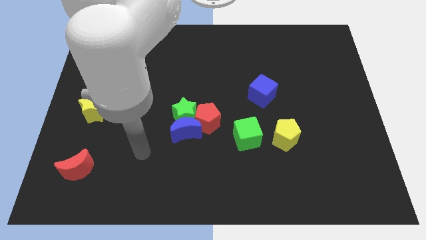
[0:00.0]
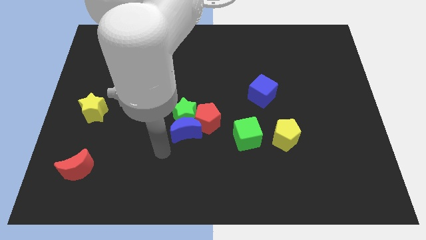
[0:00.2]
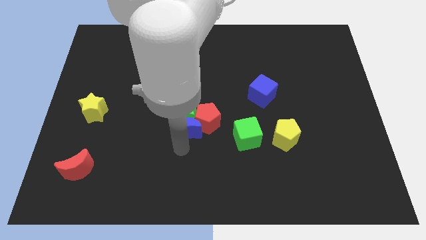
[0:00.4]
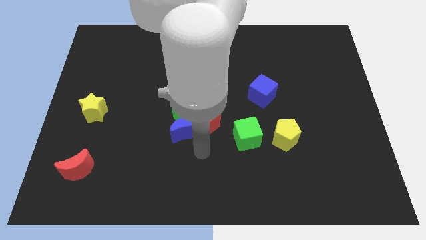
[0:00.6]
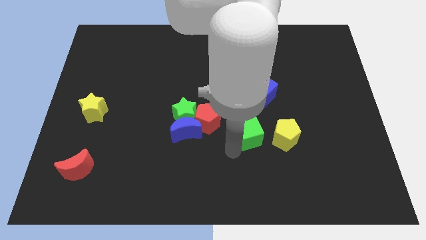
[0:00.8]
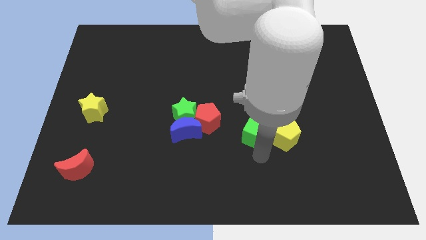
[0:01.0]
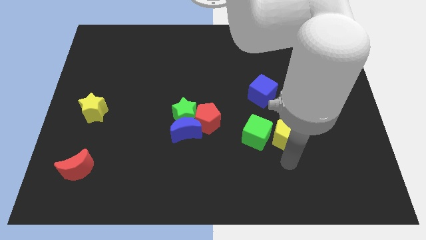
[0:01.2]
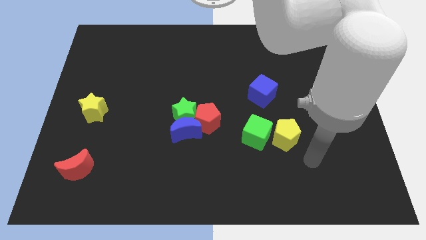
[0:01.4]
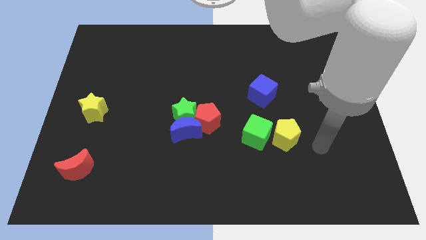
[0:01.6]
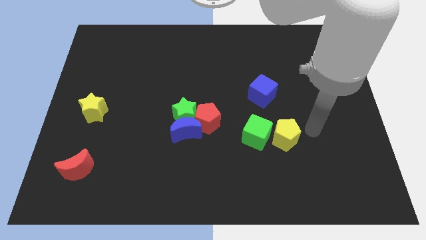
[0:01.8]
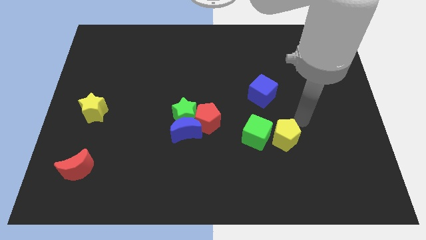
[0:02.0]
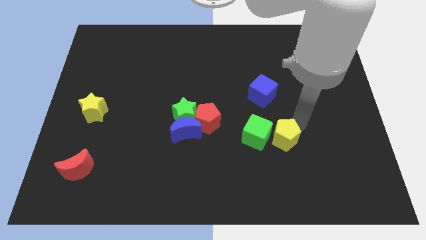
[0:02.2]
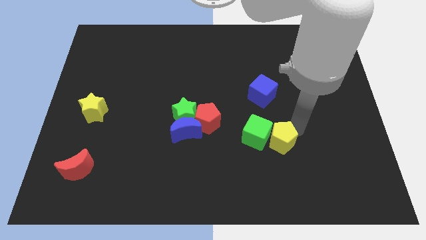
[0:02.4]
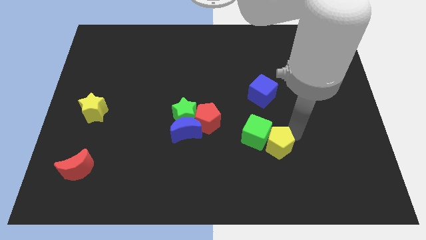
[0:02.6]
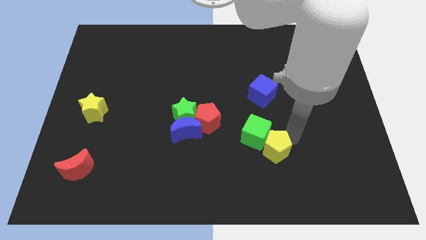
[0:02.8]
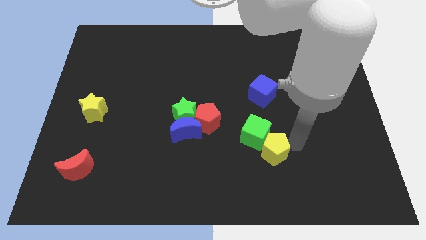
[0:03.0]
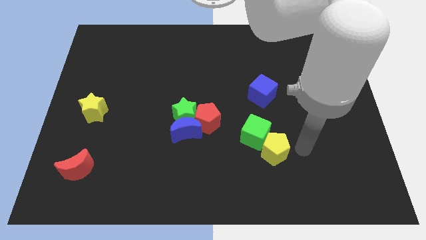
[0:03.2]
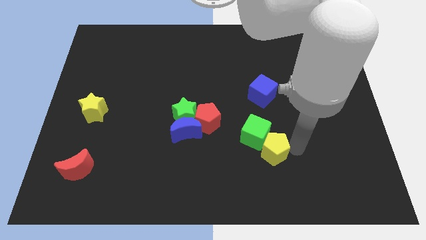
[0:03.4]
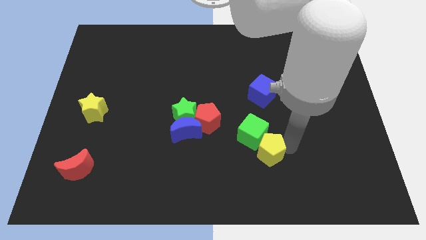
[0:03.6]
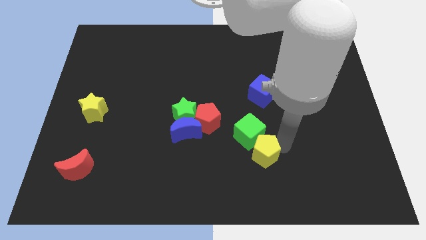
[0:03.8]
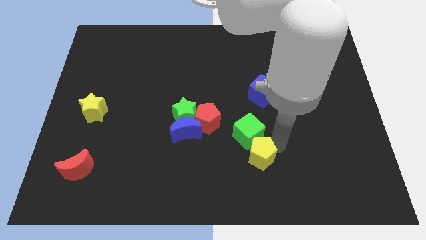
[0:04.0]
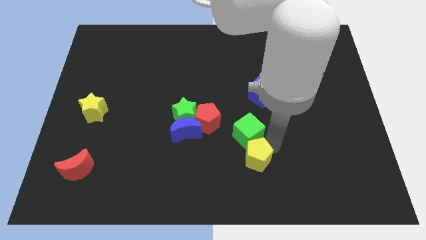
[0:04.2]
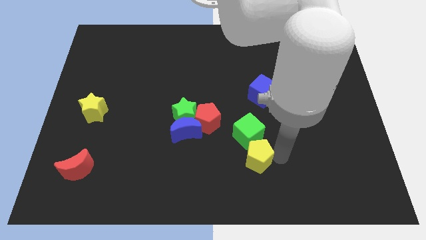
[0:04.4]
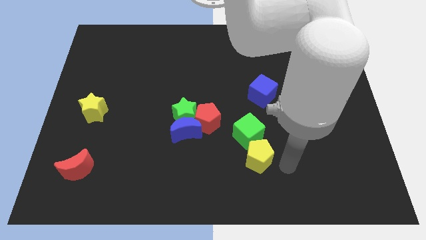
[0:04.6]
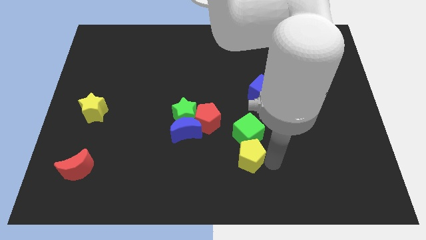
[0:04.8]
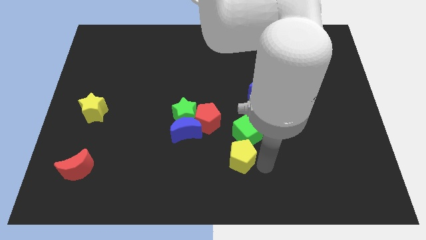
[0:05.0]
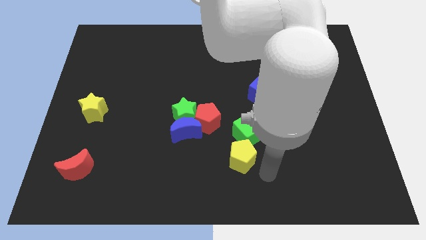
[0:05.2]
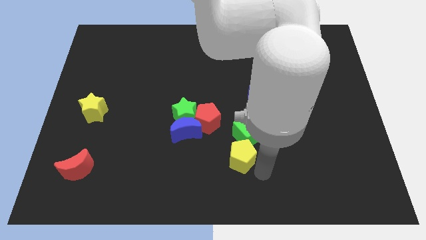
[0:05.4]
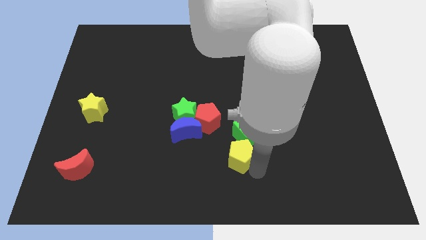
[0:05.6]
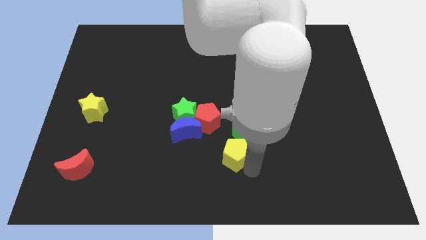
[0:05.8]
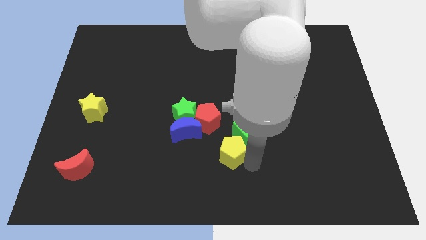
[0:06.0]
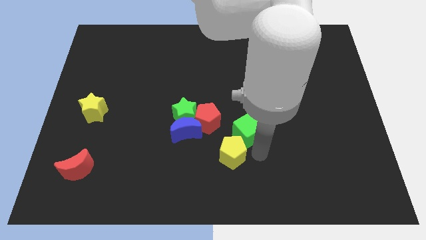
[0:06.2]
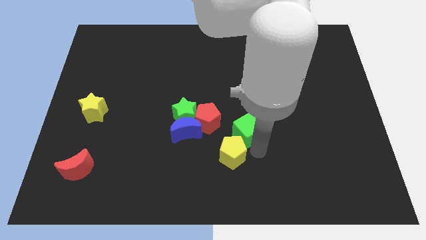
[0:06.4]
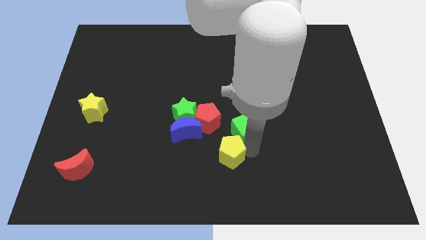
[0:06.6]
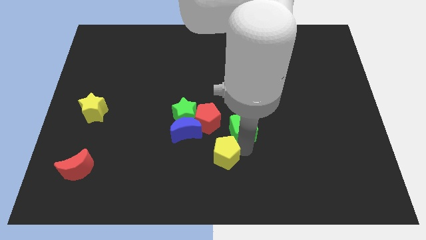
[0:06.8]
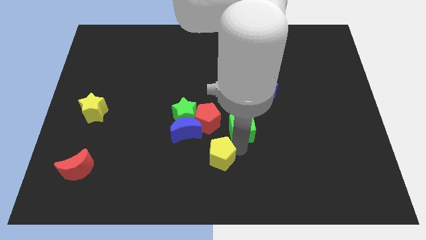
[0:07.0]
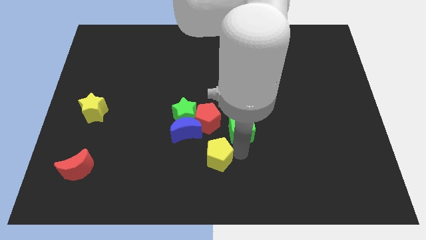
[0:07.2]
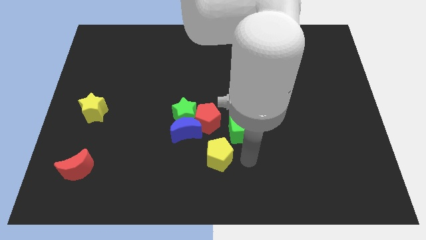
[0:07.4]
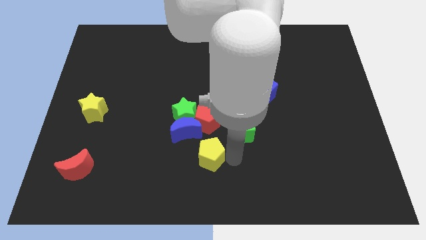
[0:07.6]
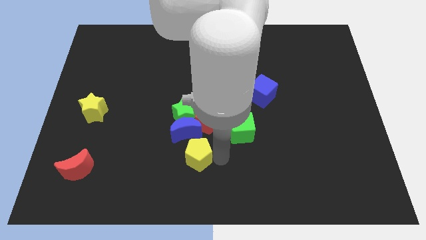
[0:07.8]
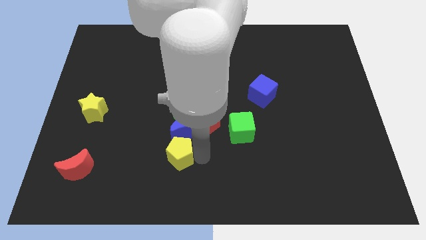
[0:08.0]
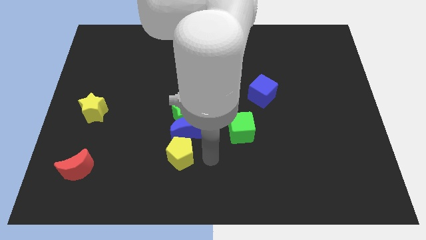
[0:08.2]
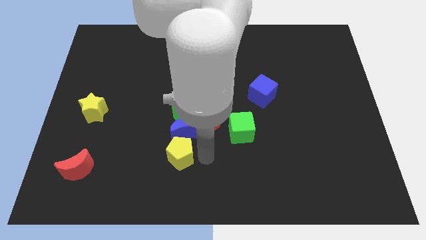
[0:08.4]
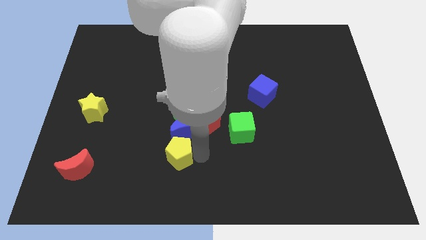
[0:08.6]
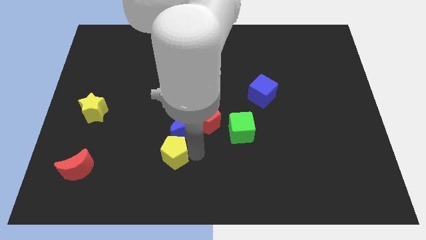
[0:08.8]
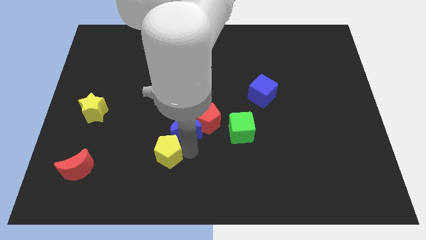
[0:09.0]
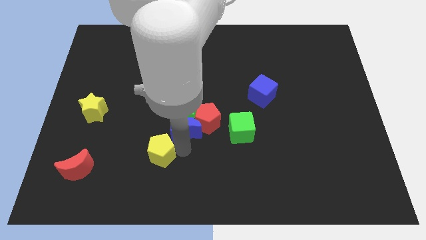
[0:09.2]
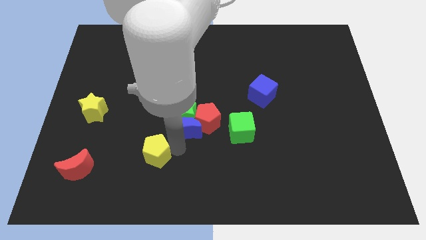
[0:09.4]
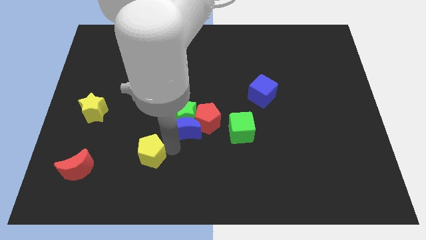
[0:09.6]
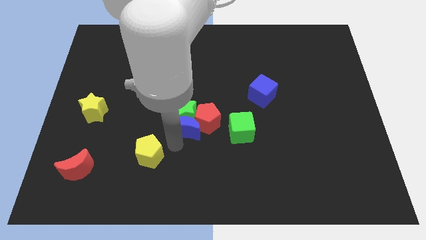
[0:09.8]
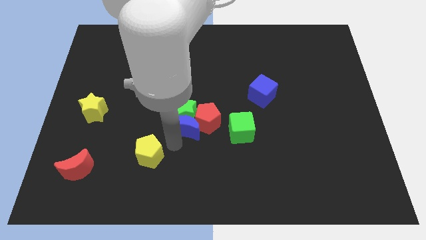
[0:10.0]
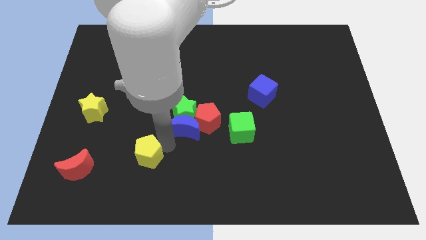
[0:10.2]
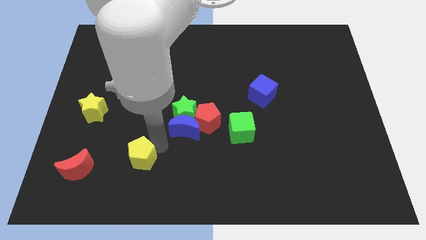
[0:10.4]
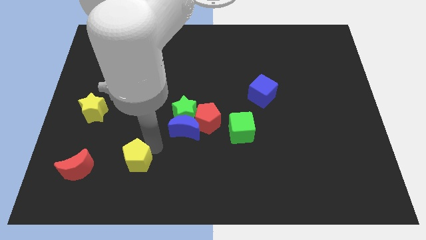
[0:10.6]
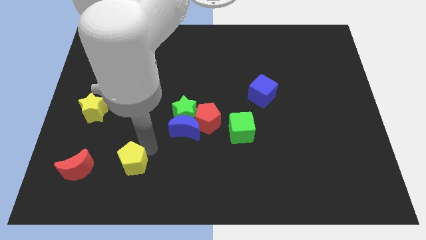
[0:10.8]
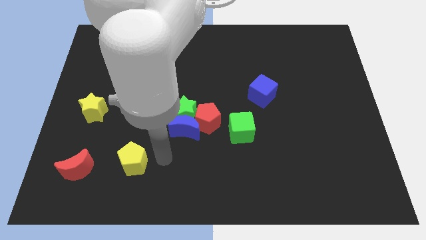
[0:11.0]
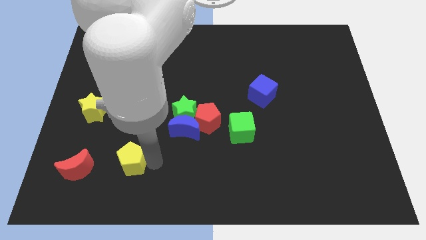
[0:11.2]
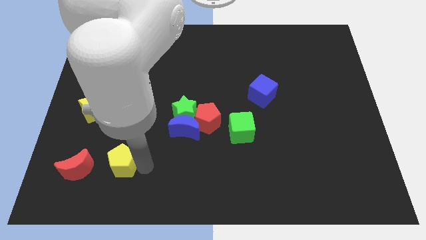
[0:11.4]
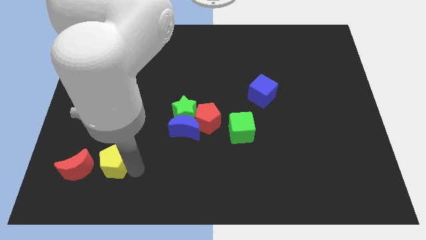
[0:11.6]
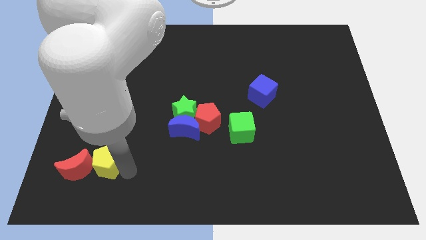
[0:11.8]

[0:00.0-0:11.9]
slide the yellow pentagon next to the red moon
